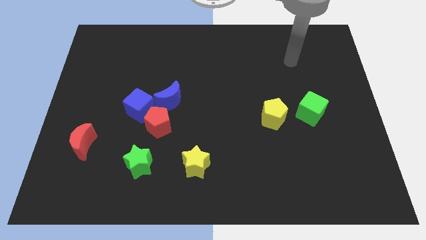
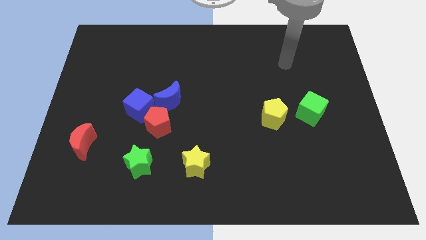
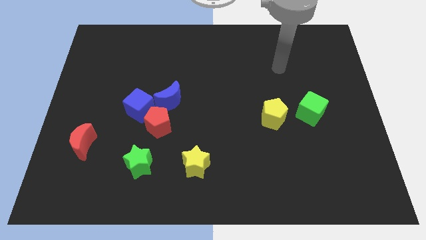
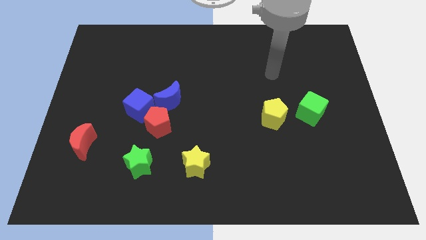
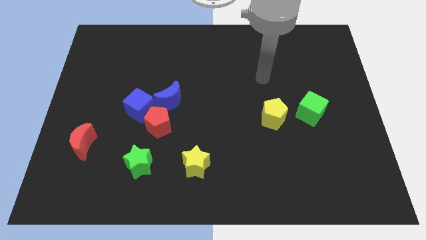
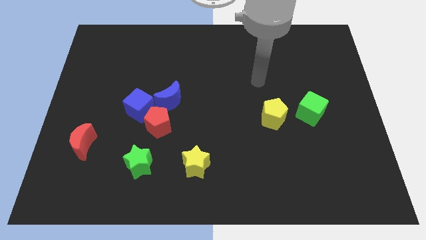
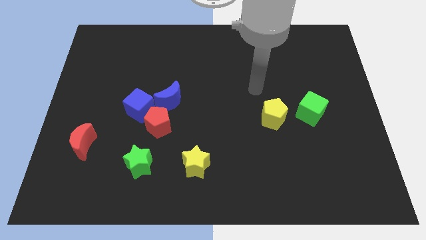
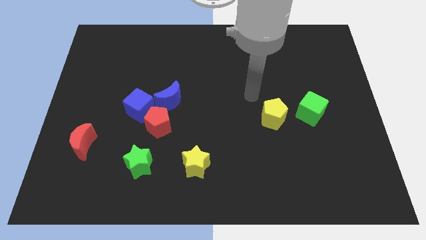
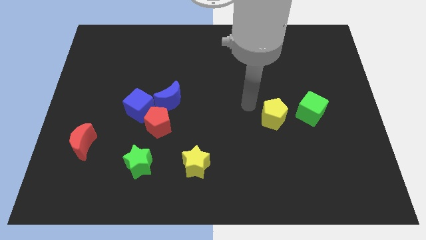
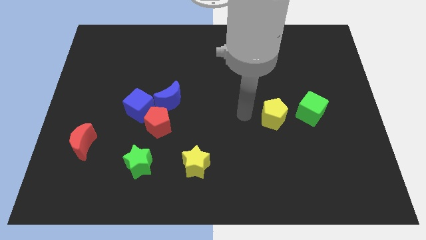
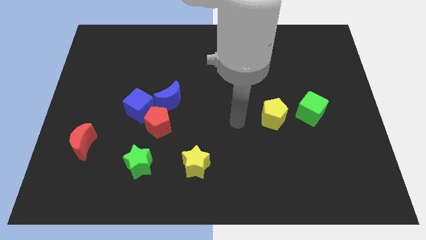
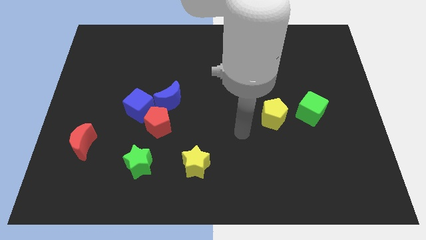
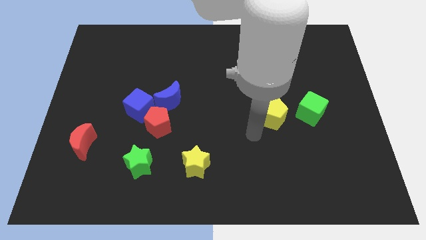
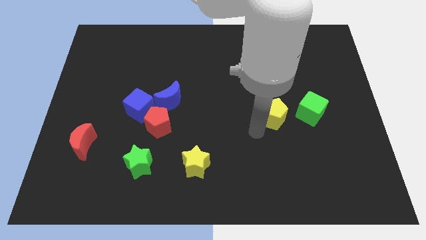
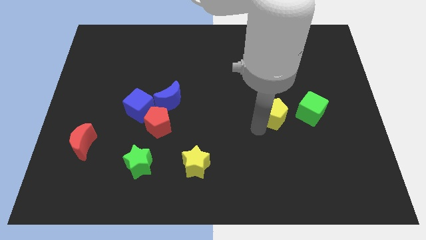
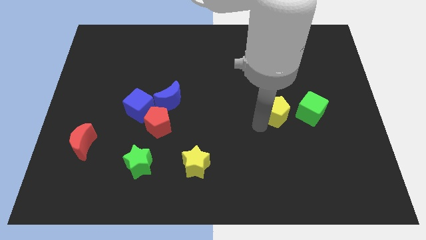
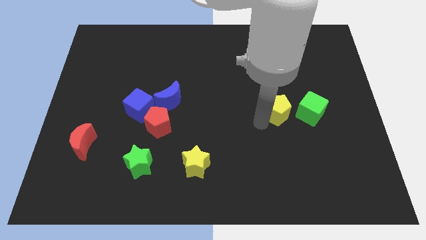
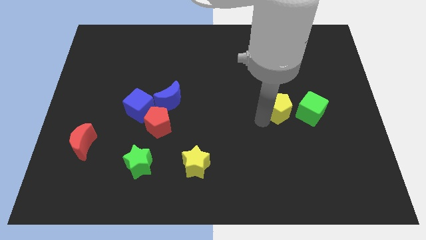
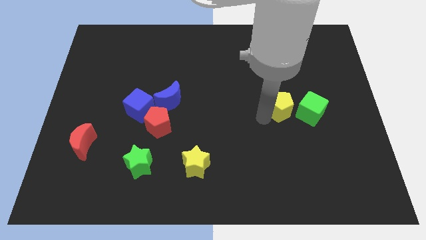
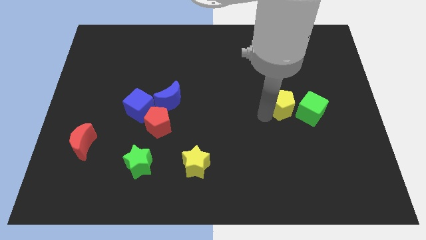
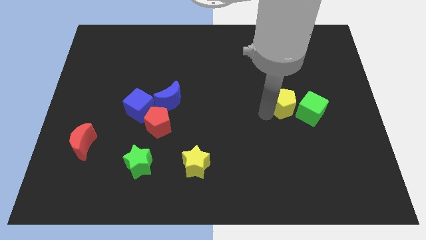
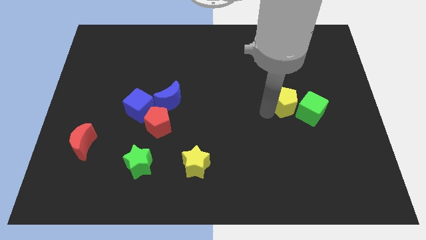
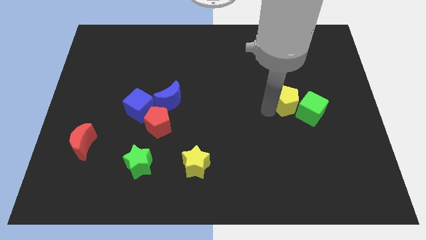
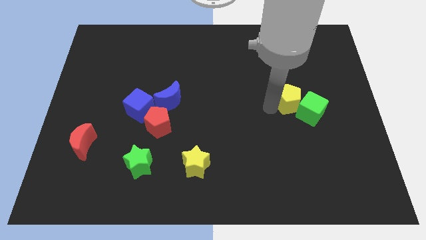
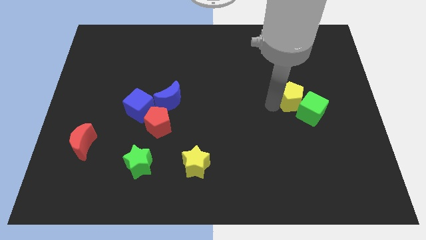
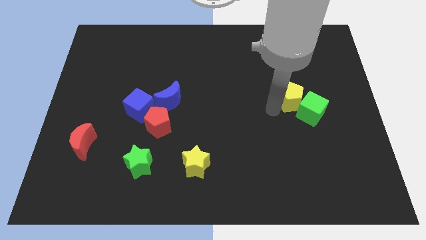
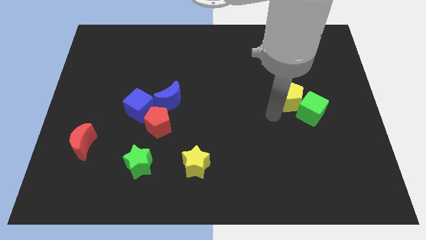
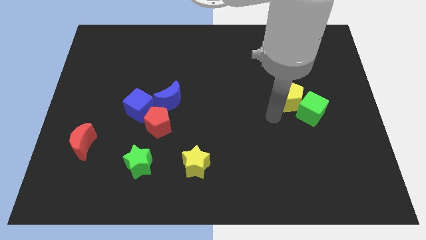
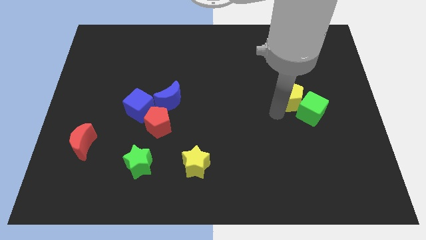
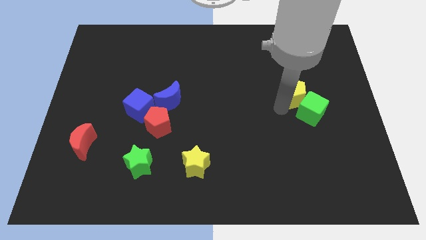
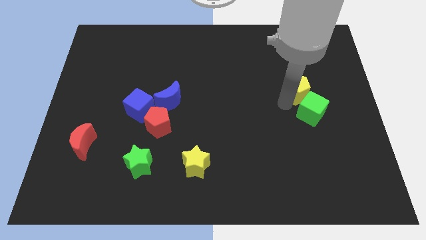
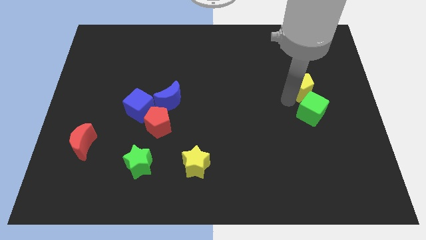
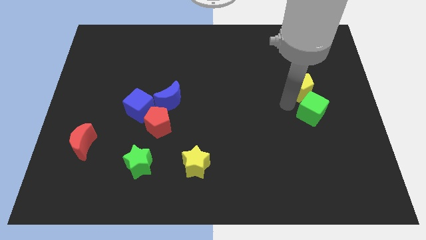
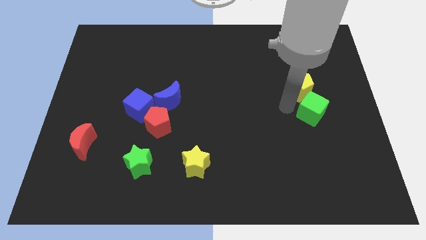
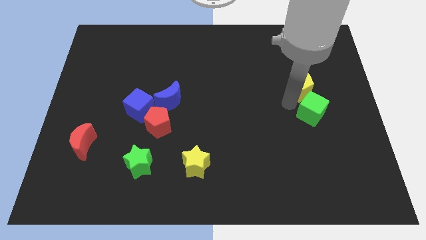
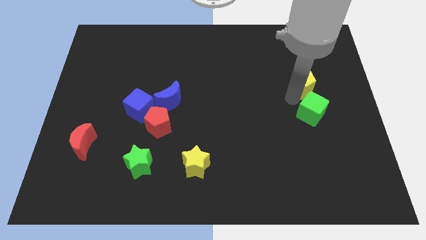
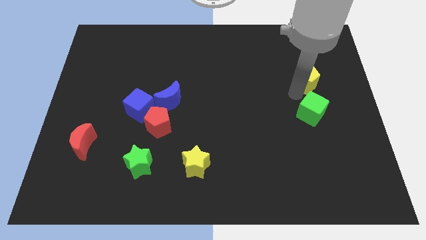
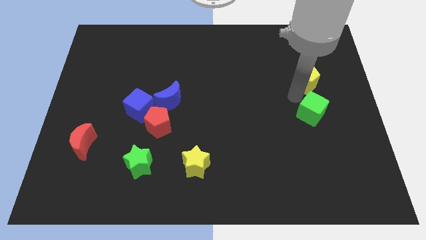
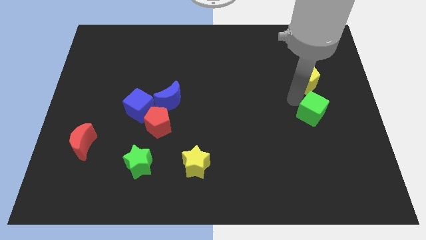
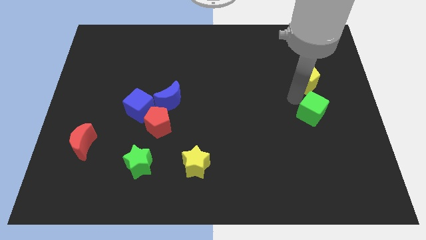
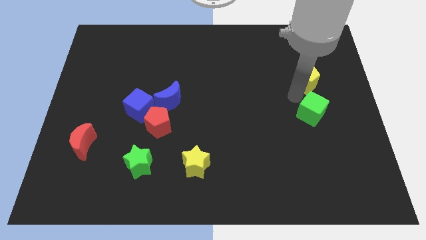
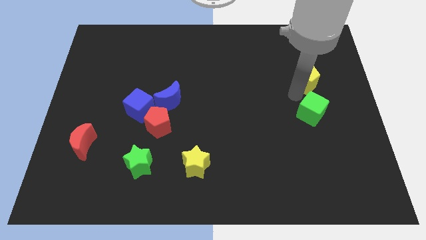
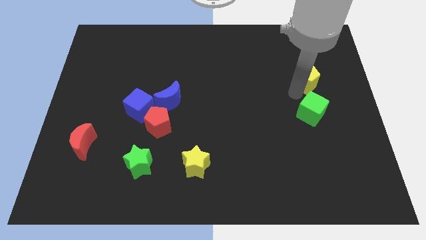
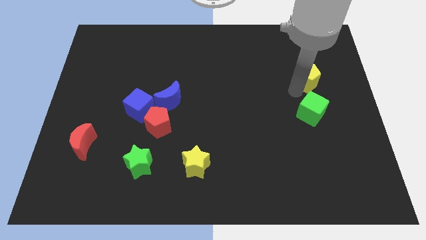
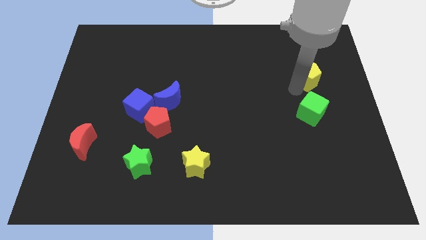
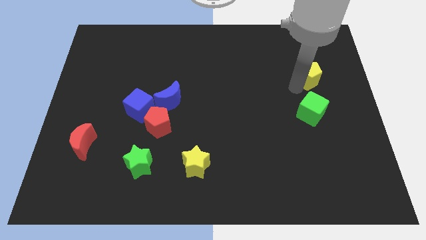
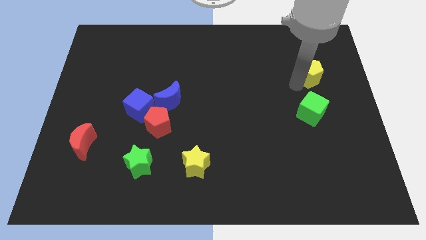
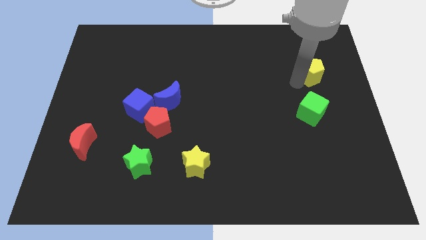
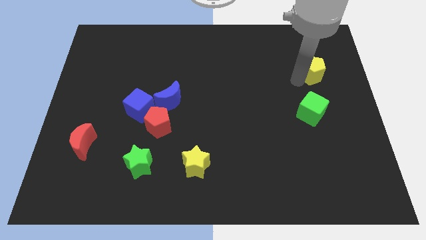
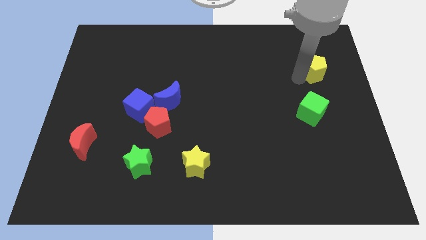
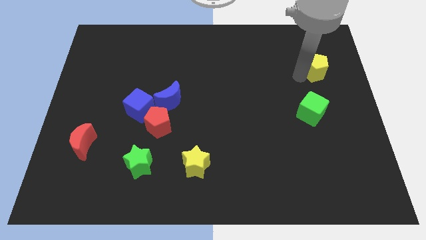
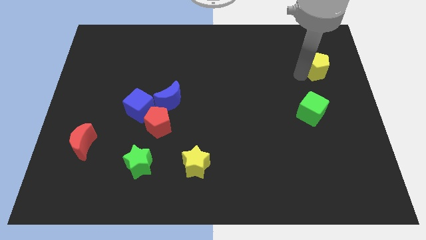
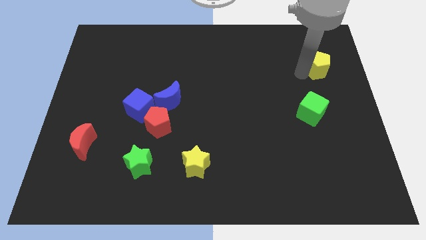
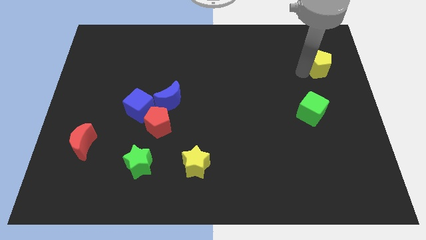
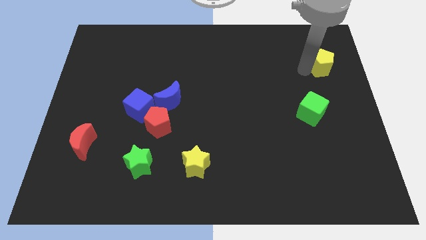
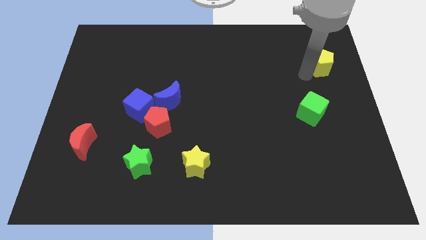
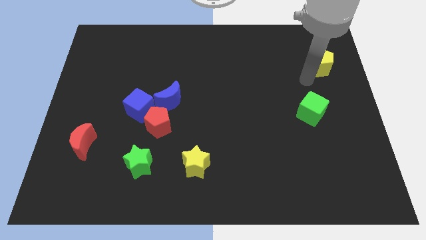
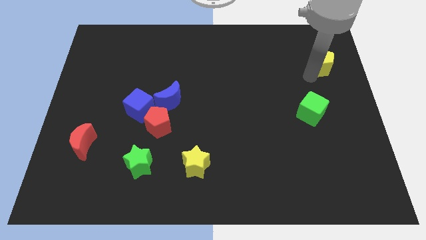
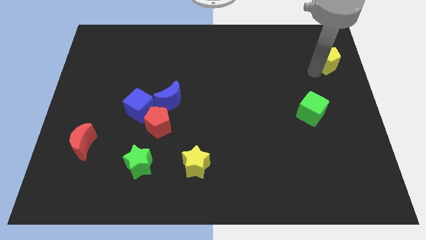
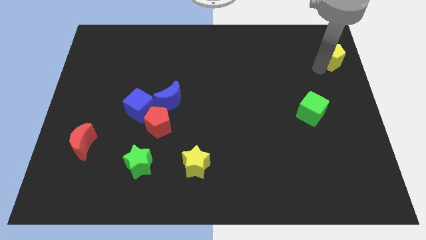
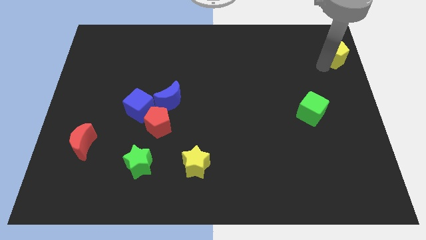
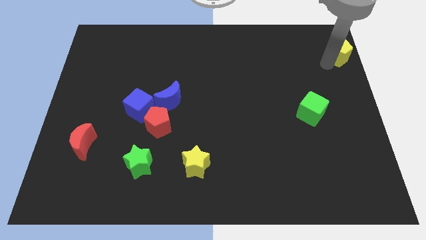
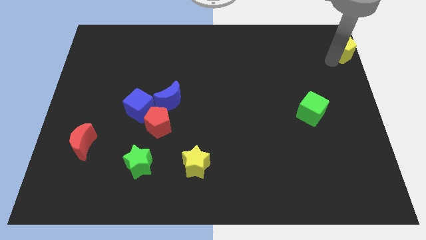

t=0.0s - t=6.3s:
push the yellow pentagon to the top right
